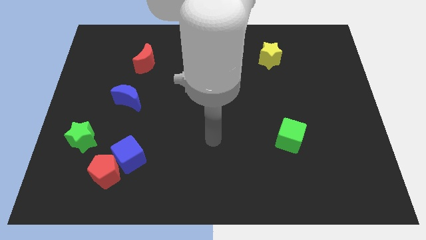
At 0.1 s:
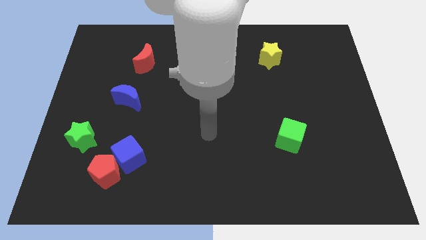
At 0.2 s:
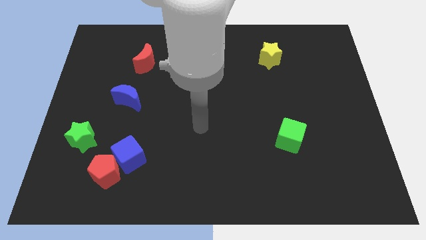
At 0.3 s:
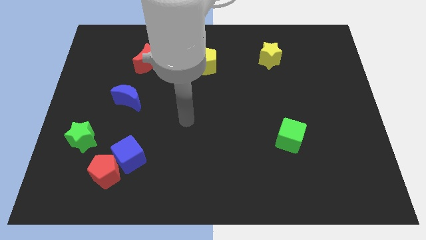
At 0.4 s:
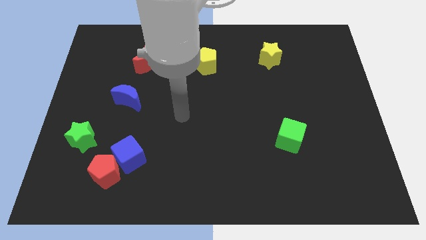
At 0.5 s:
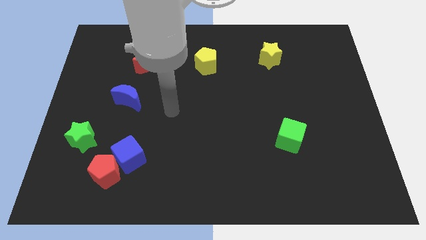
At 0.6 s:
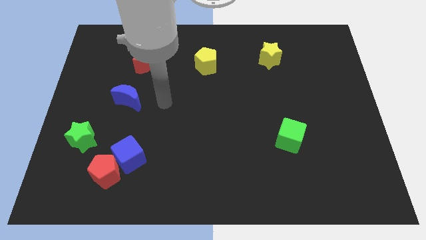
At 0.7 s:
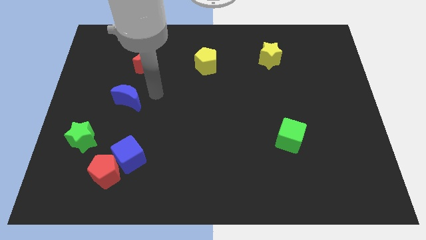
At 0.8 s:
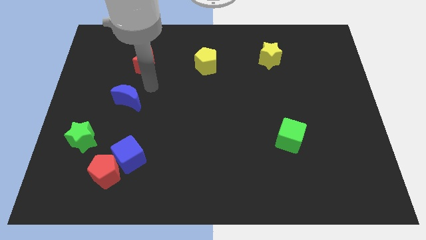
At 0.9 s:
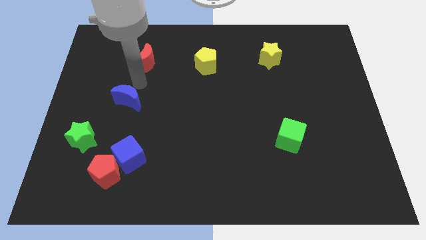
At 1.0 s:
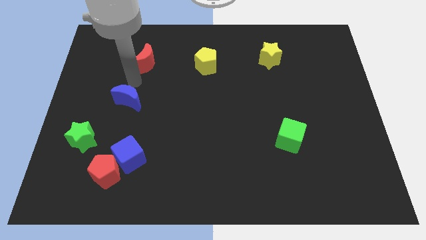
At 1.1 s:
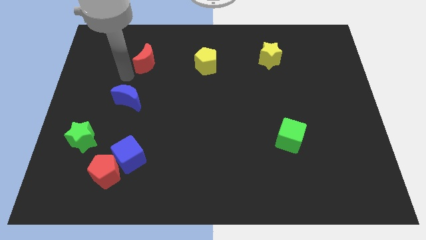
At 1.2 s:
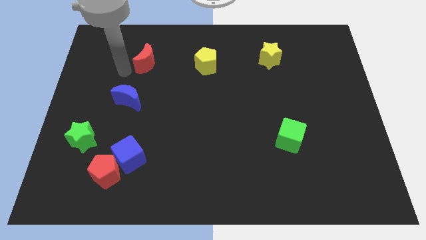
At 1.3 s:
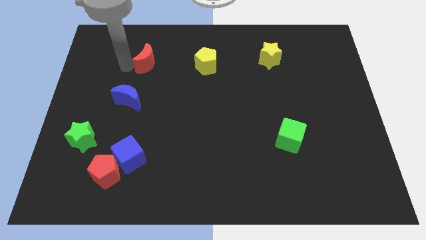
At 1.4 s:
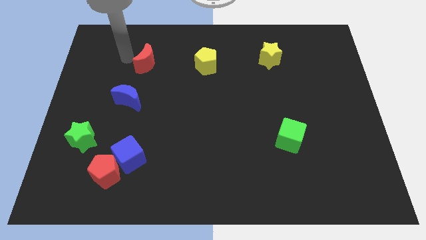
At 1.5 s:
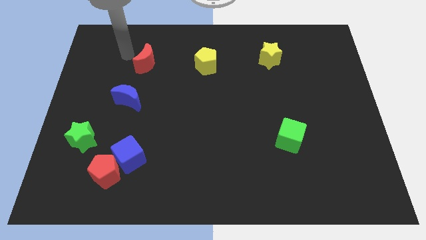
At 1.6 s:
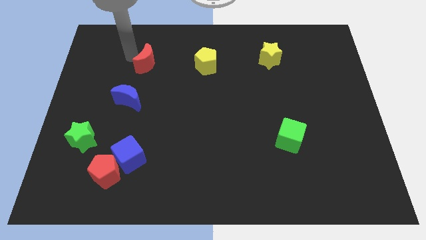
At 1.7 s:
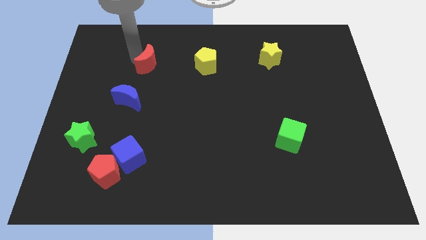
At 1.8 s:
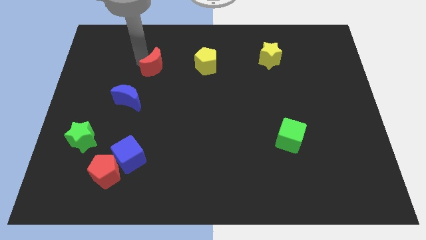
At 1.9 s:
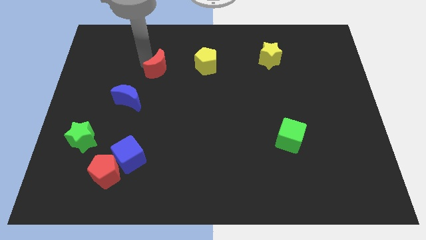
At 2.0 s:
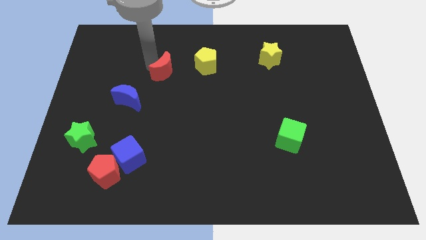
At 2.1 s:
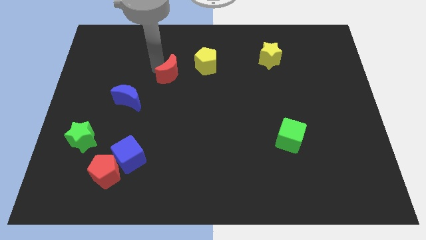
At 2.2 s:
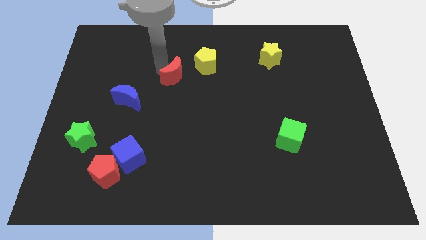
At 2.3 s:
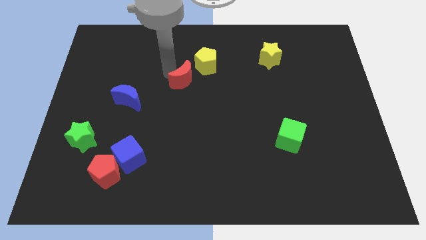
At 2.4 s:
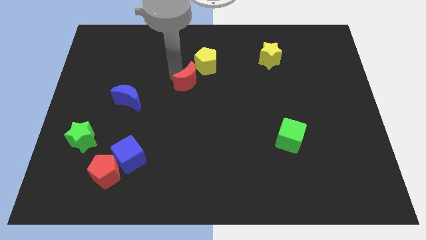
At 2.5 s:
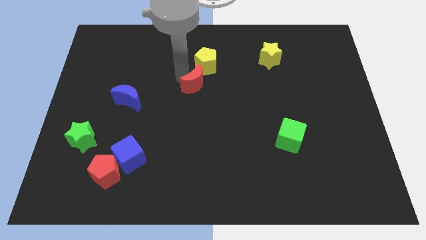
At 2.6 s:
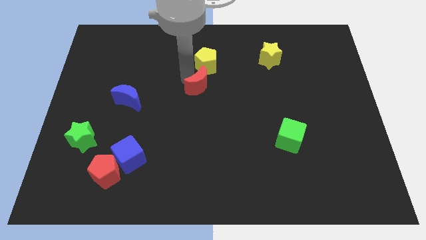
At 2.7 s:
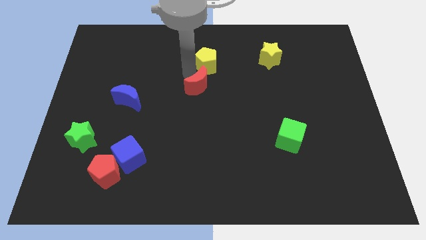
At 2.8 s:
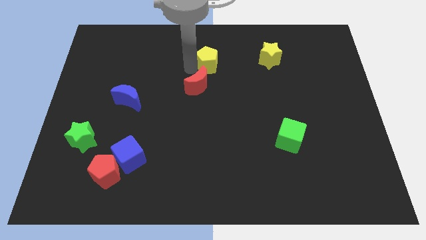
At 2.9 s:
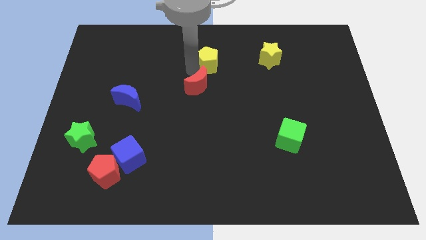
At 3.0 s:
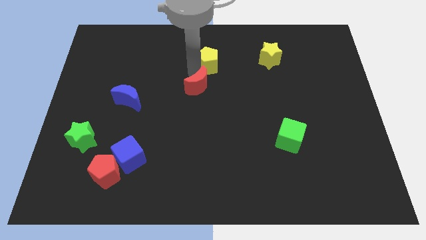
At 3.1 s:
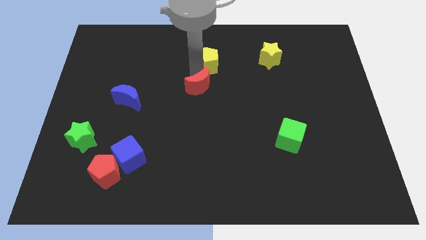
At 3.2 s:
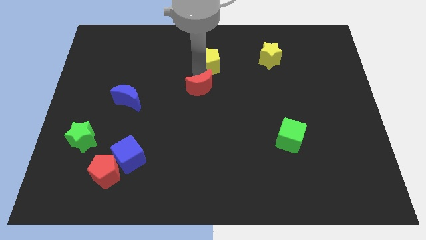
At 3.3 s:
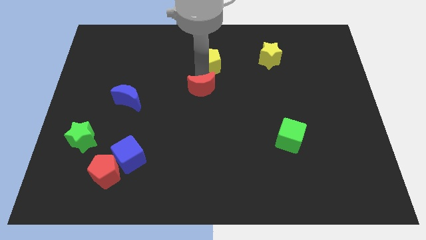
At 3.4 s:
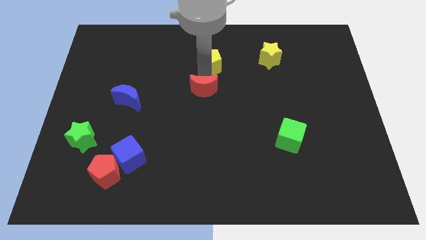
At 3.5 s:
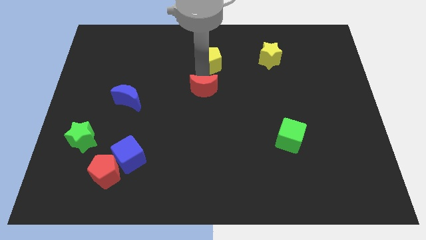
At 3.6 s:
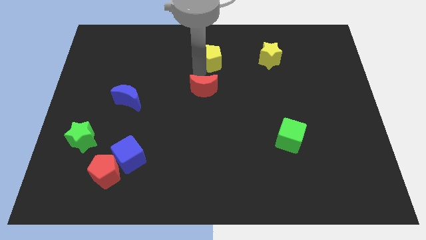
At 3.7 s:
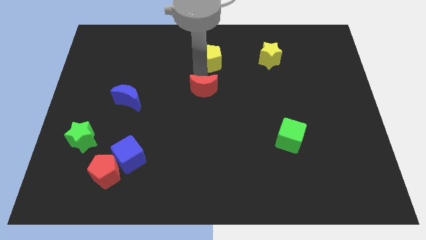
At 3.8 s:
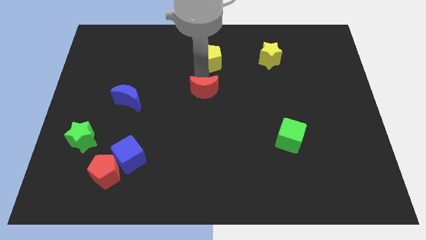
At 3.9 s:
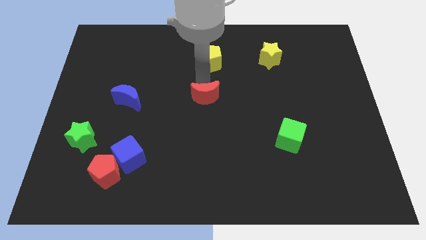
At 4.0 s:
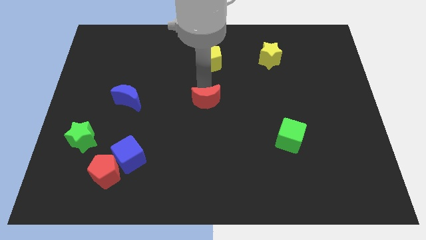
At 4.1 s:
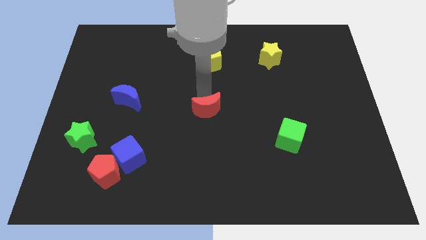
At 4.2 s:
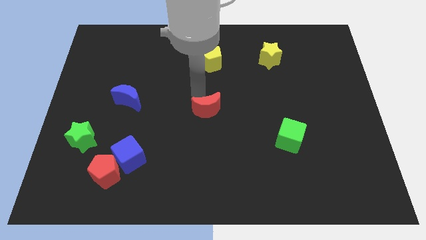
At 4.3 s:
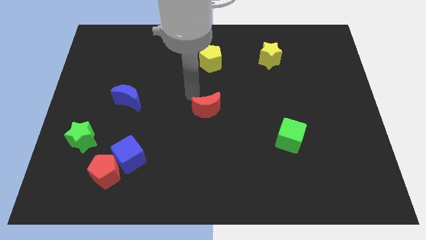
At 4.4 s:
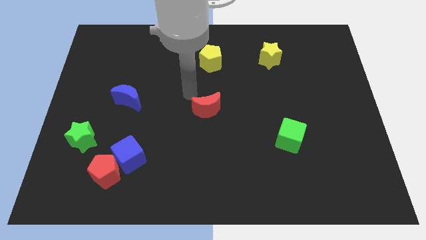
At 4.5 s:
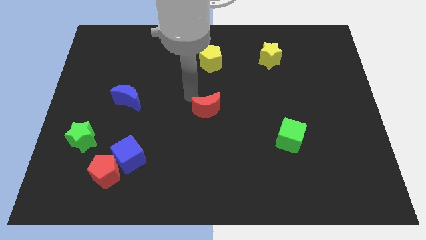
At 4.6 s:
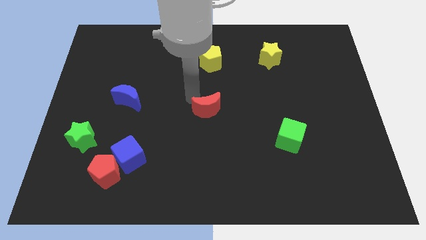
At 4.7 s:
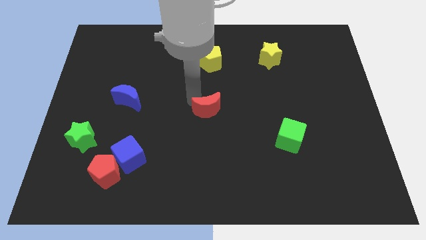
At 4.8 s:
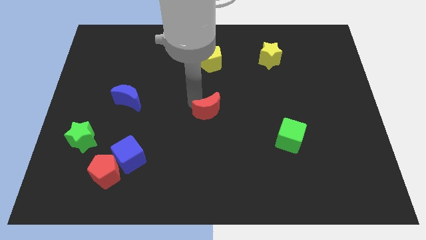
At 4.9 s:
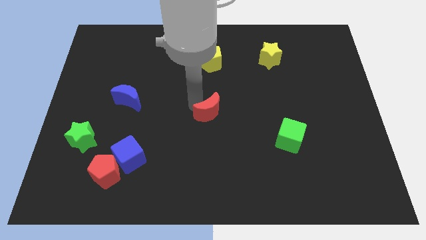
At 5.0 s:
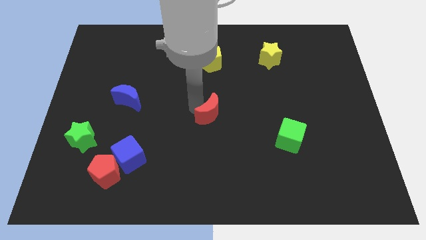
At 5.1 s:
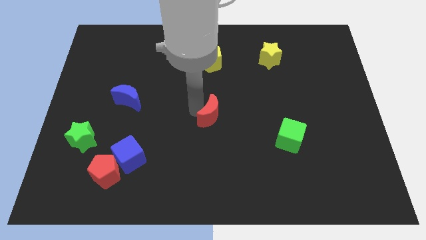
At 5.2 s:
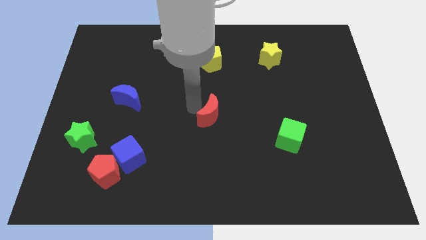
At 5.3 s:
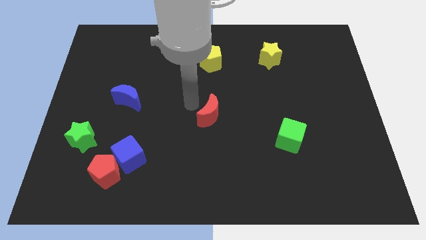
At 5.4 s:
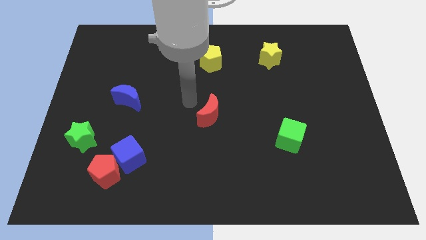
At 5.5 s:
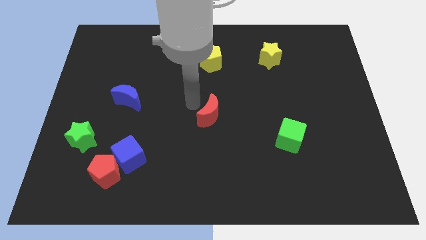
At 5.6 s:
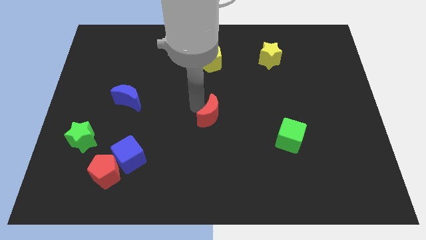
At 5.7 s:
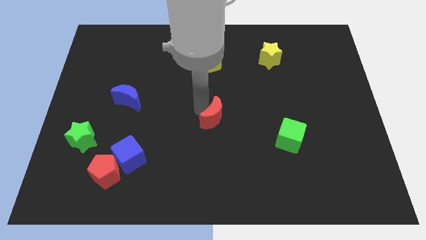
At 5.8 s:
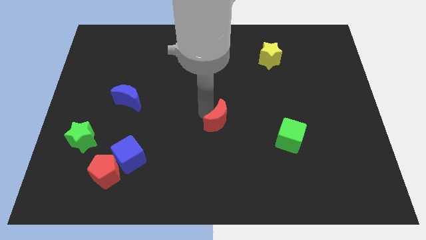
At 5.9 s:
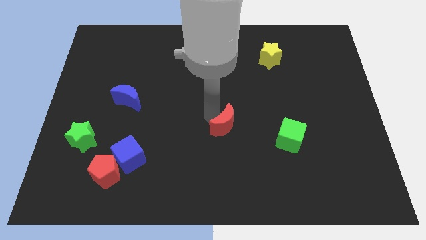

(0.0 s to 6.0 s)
push the red moon to the left side of the green cube

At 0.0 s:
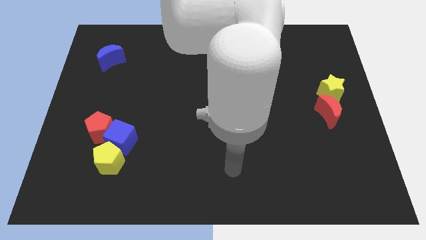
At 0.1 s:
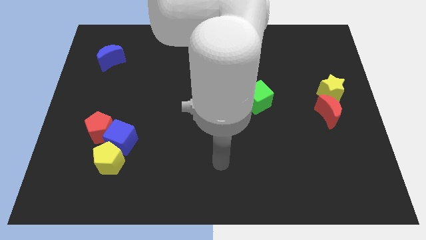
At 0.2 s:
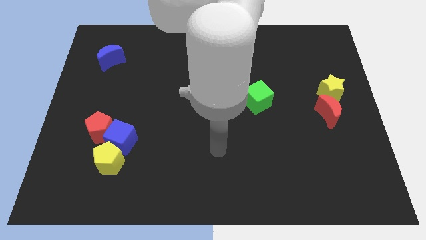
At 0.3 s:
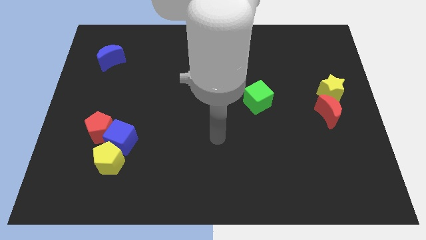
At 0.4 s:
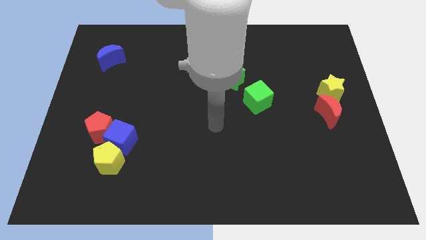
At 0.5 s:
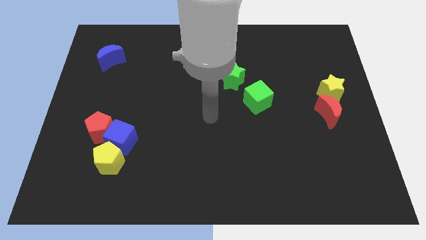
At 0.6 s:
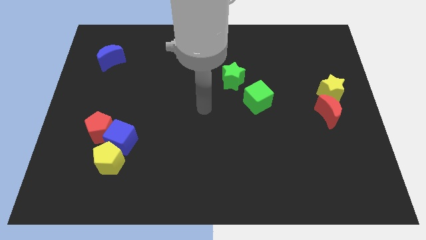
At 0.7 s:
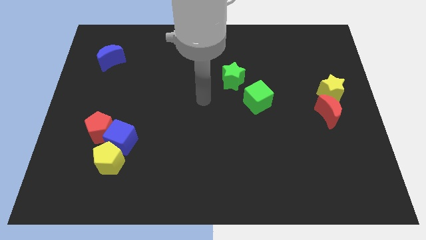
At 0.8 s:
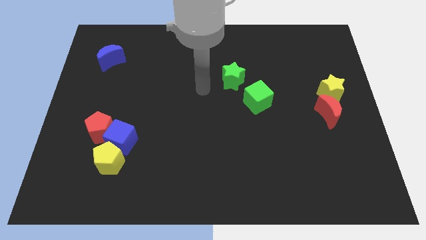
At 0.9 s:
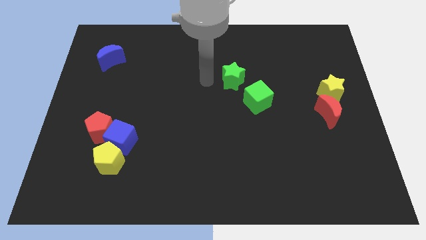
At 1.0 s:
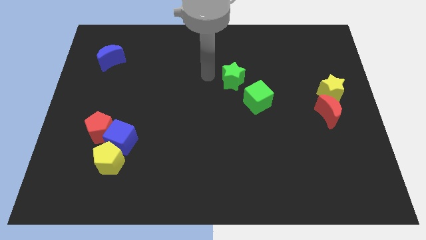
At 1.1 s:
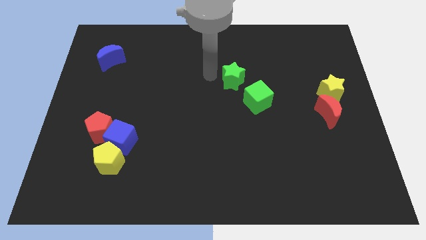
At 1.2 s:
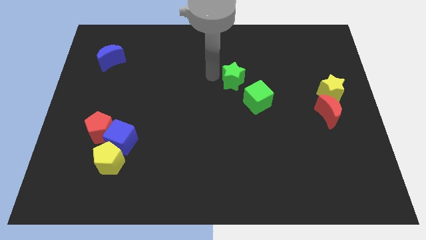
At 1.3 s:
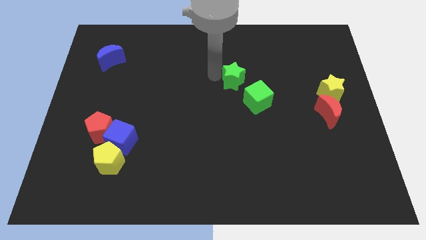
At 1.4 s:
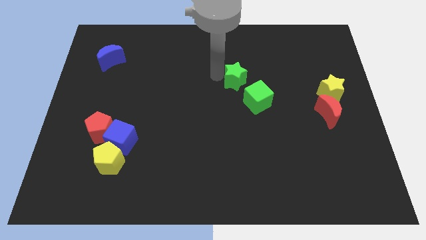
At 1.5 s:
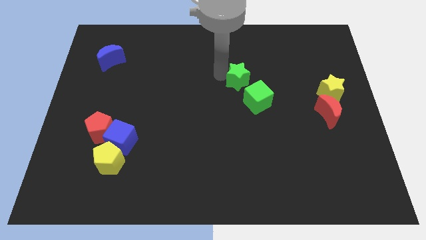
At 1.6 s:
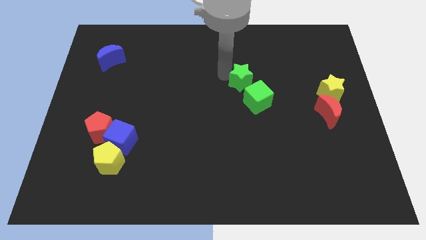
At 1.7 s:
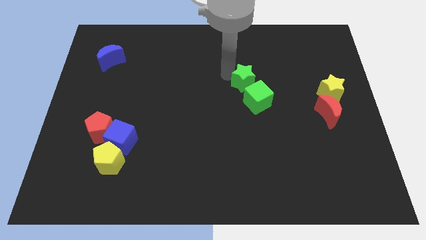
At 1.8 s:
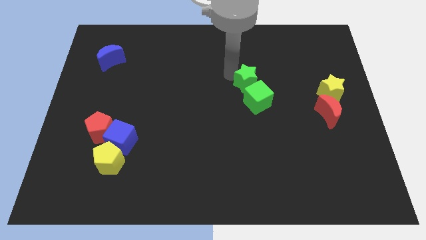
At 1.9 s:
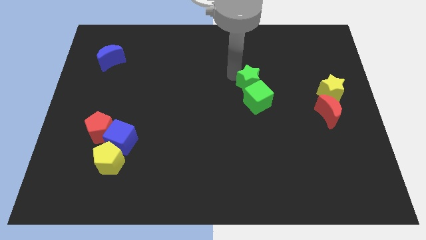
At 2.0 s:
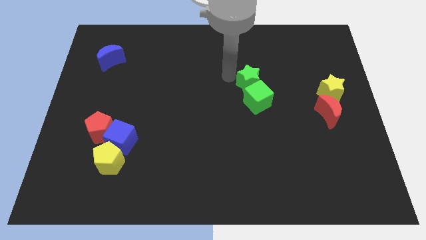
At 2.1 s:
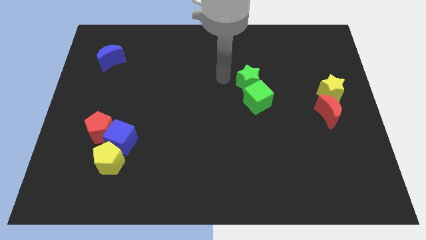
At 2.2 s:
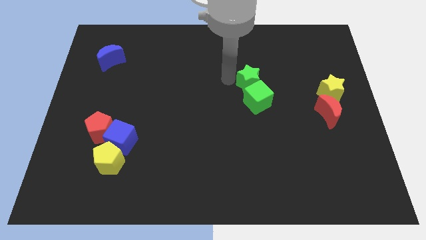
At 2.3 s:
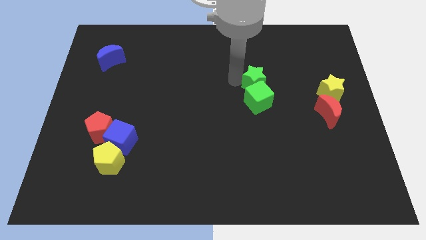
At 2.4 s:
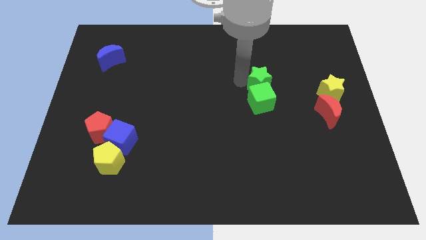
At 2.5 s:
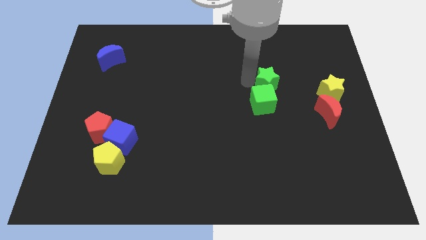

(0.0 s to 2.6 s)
put the green star to the left of the yellow star
